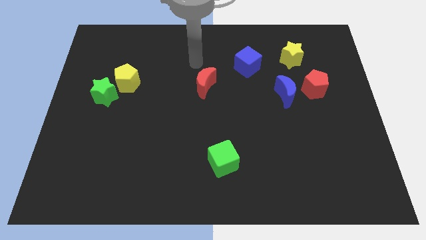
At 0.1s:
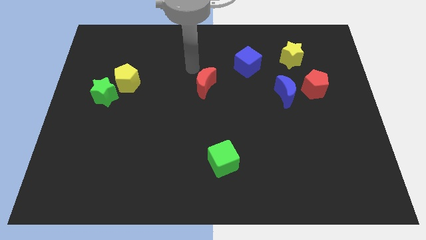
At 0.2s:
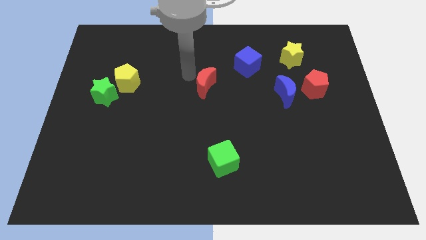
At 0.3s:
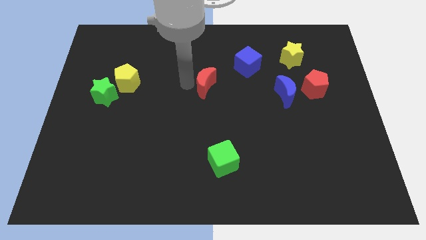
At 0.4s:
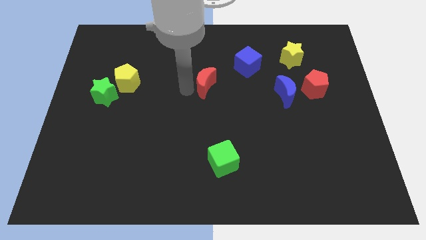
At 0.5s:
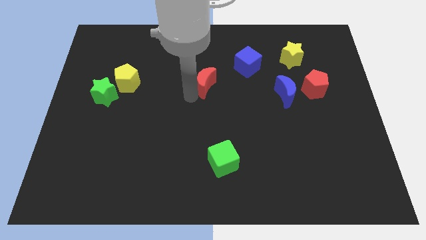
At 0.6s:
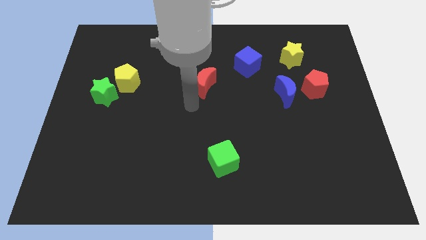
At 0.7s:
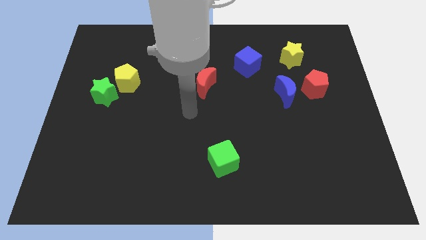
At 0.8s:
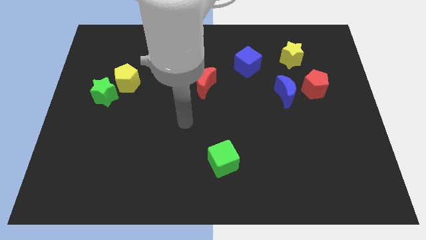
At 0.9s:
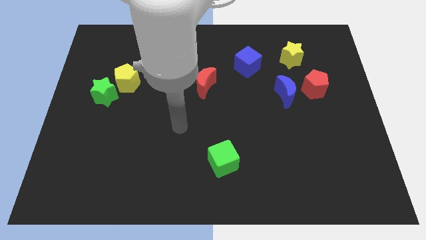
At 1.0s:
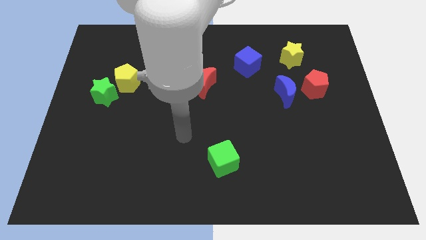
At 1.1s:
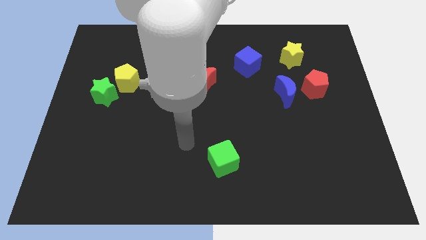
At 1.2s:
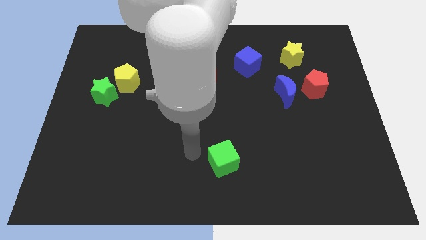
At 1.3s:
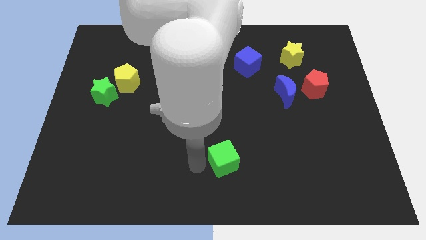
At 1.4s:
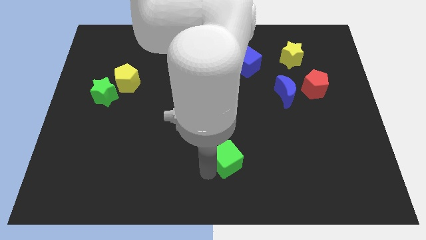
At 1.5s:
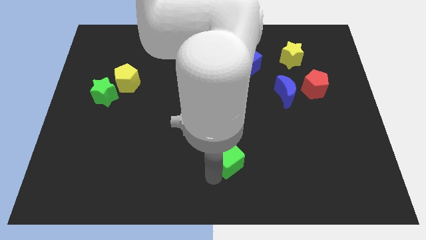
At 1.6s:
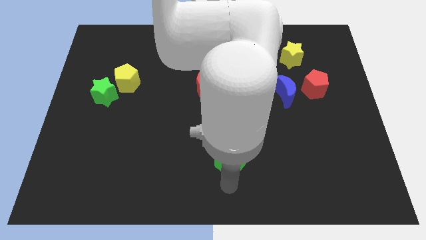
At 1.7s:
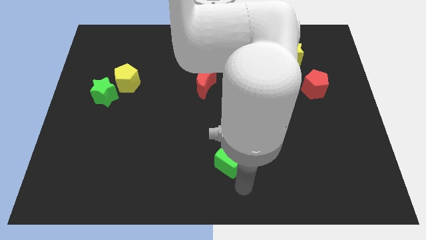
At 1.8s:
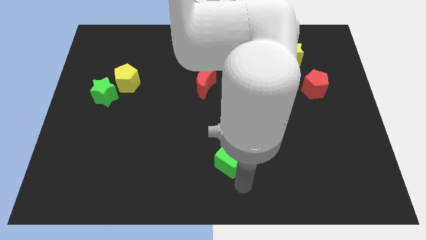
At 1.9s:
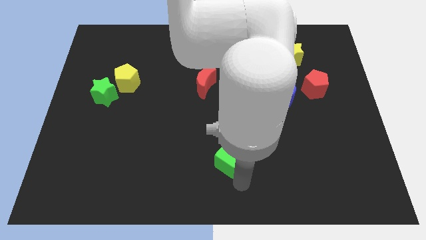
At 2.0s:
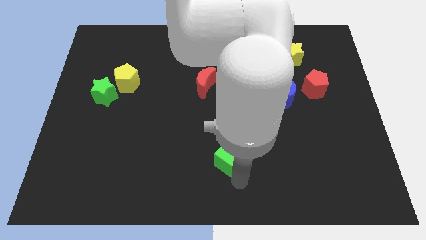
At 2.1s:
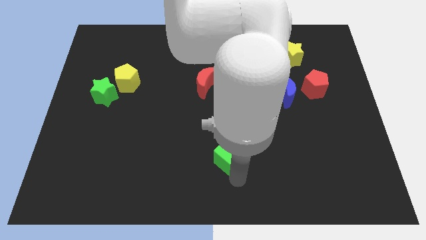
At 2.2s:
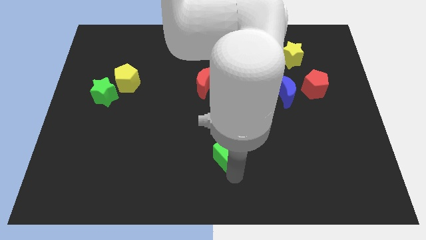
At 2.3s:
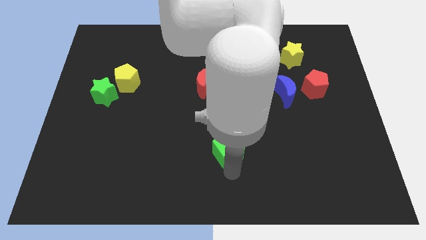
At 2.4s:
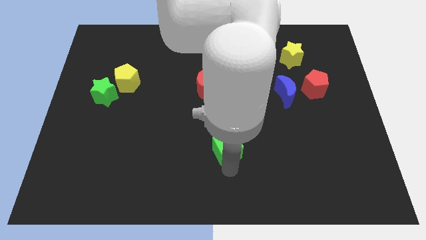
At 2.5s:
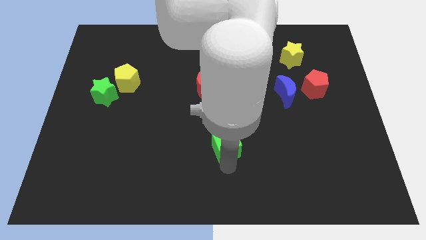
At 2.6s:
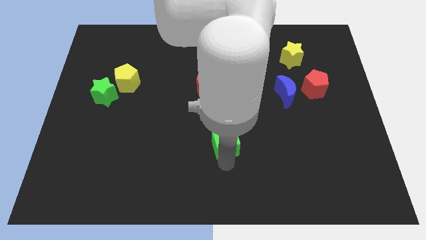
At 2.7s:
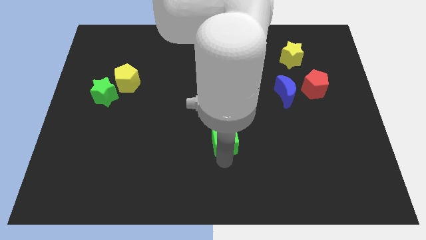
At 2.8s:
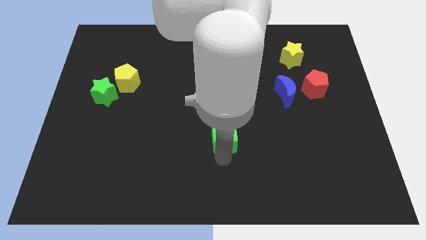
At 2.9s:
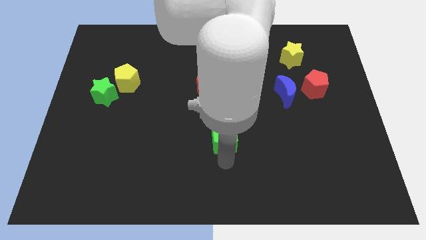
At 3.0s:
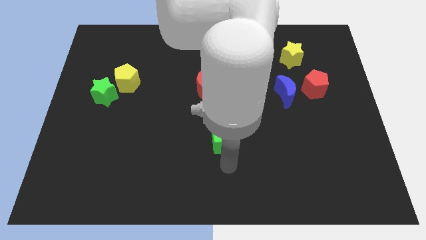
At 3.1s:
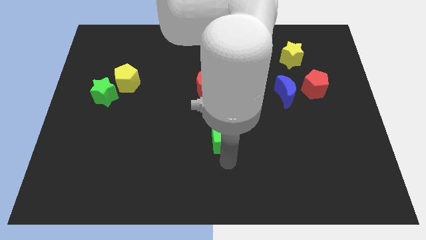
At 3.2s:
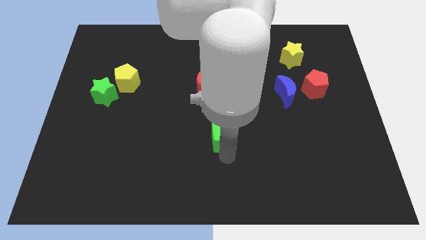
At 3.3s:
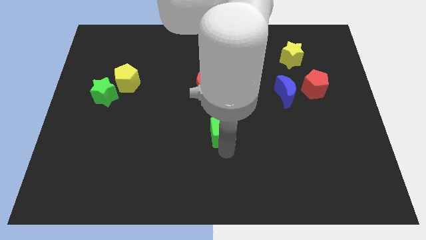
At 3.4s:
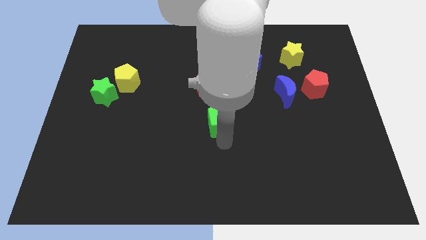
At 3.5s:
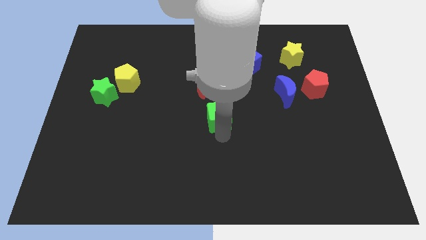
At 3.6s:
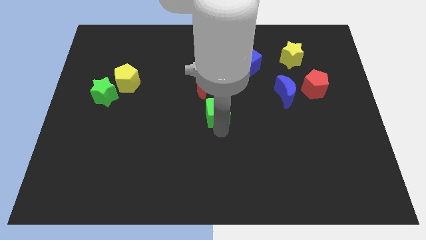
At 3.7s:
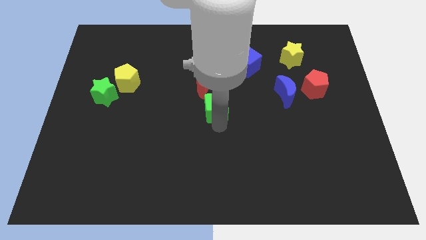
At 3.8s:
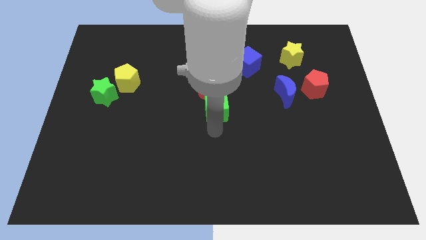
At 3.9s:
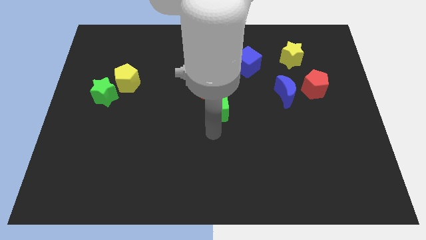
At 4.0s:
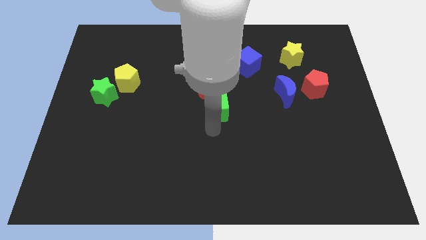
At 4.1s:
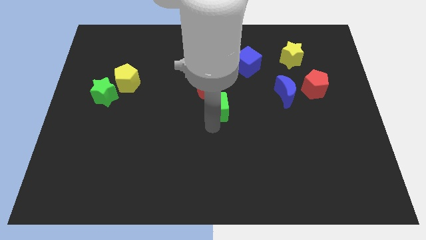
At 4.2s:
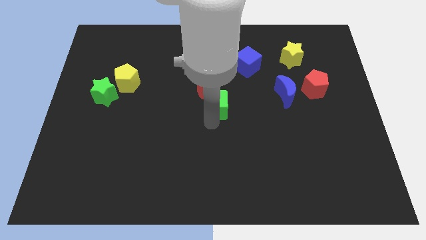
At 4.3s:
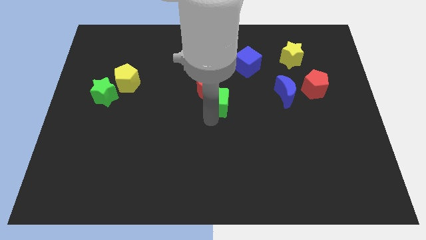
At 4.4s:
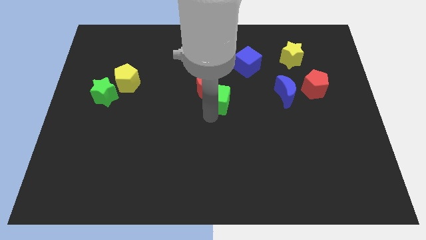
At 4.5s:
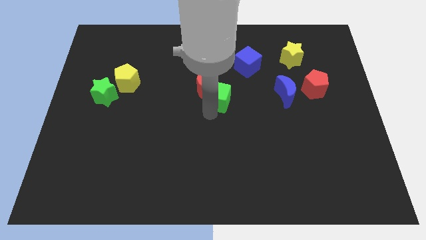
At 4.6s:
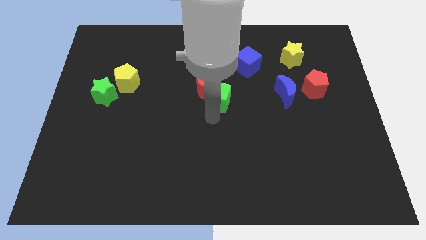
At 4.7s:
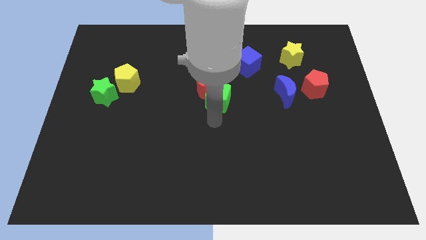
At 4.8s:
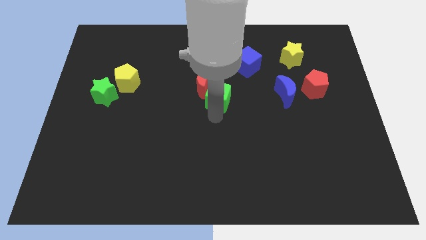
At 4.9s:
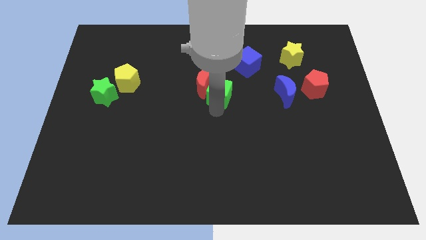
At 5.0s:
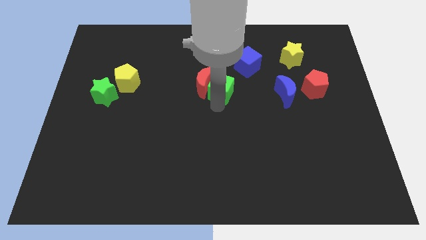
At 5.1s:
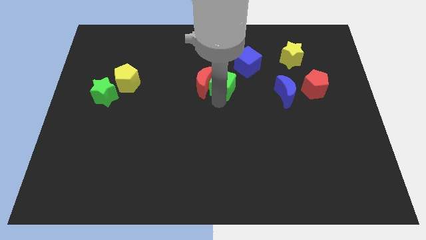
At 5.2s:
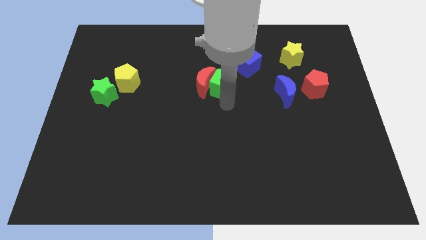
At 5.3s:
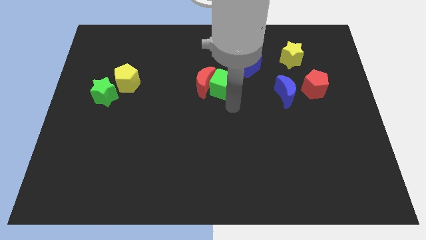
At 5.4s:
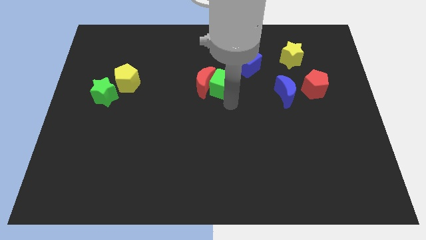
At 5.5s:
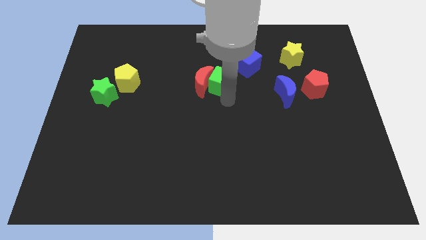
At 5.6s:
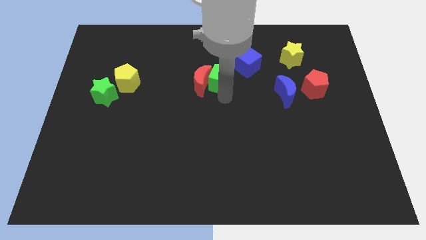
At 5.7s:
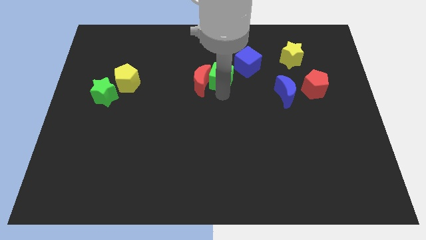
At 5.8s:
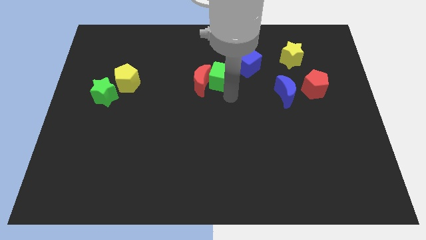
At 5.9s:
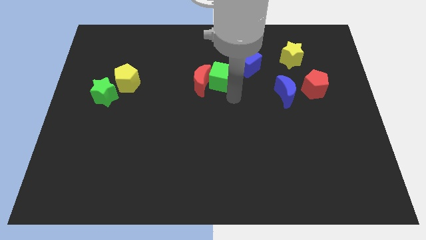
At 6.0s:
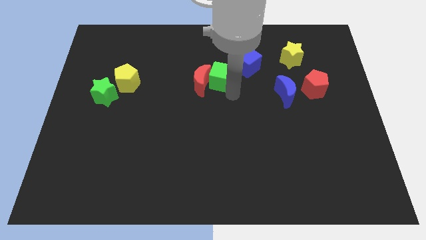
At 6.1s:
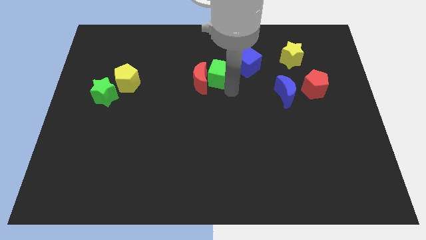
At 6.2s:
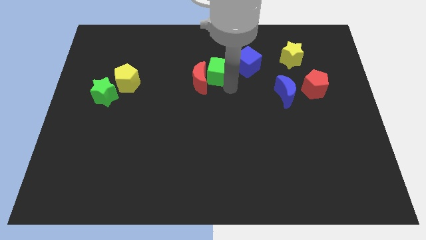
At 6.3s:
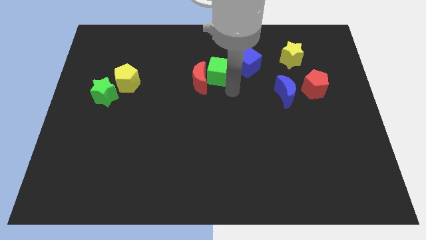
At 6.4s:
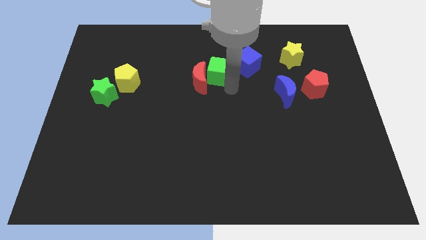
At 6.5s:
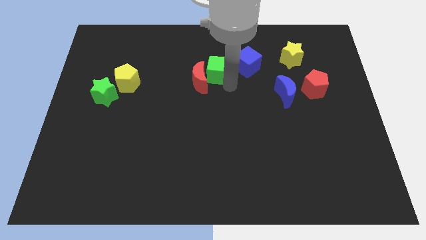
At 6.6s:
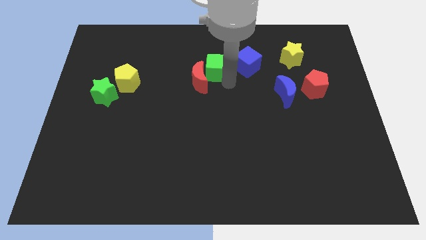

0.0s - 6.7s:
put the green cube to the top side of the red moon
